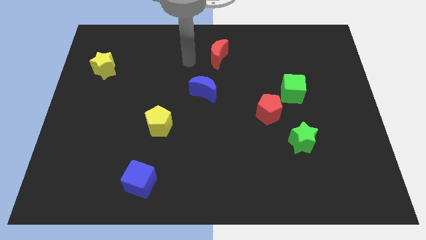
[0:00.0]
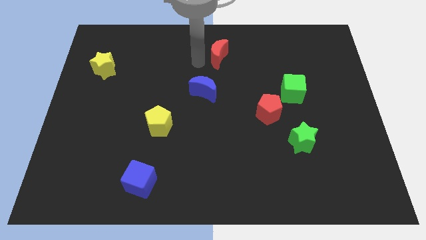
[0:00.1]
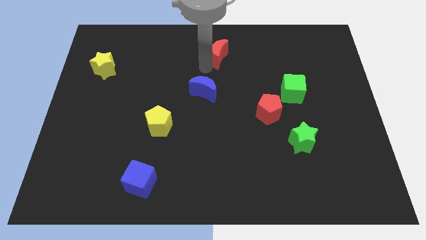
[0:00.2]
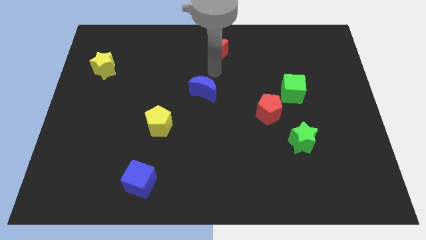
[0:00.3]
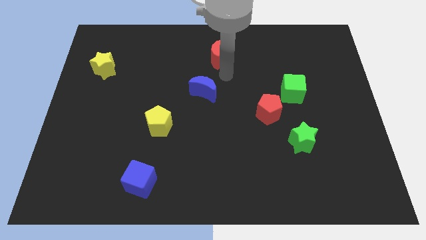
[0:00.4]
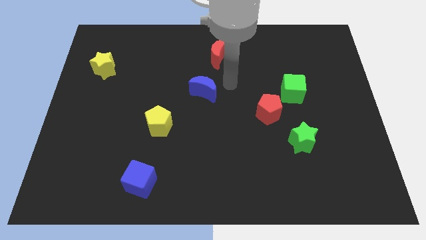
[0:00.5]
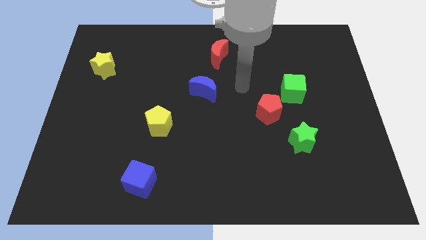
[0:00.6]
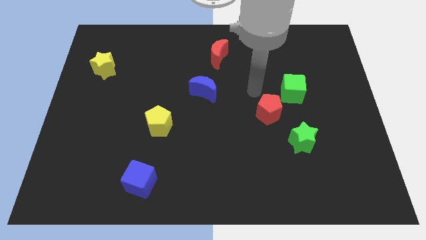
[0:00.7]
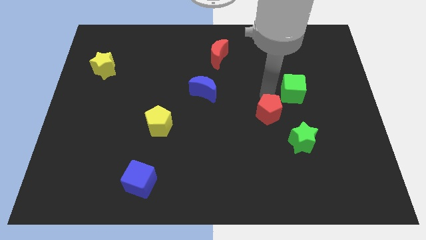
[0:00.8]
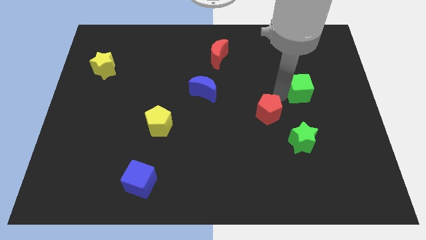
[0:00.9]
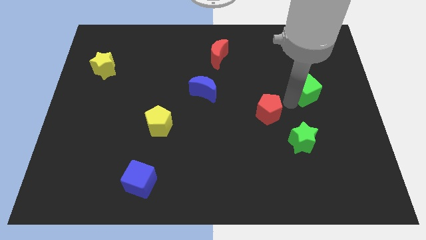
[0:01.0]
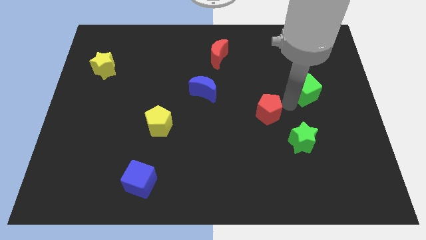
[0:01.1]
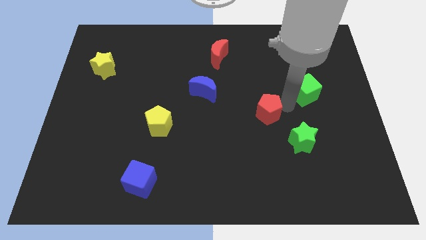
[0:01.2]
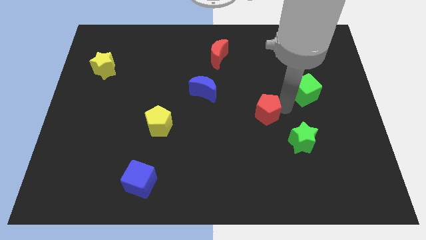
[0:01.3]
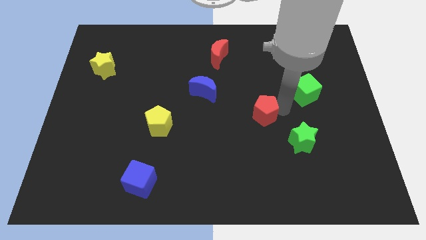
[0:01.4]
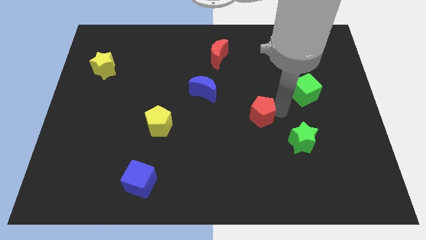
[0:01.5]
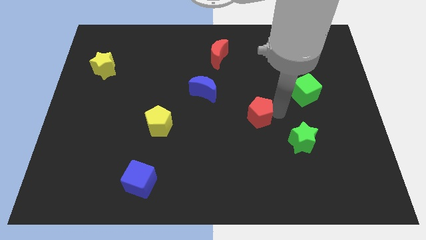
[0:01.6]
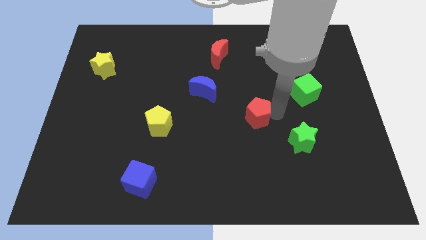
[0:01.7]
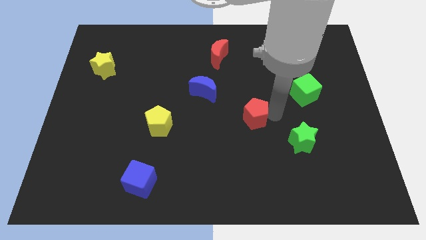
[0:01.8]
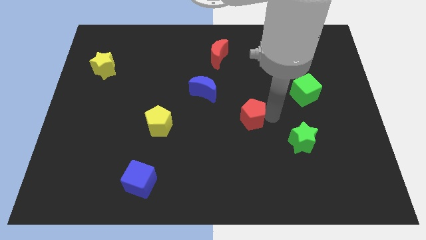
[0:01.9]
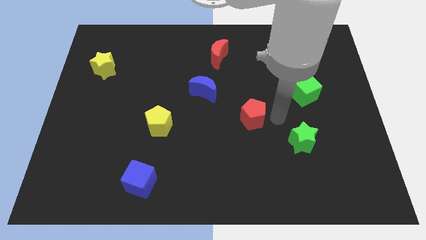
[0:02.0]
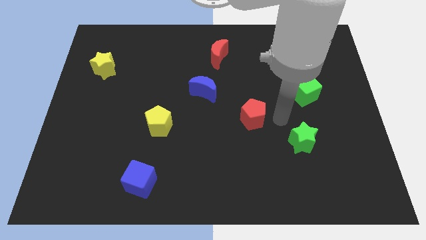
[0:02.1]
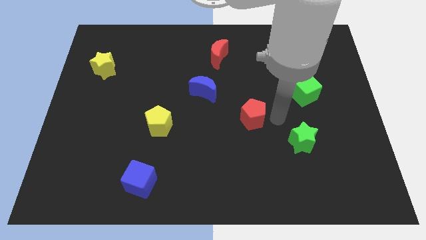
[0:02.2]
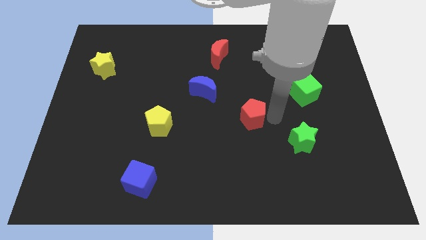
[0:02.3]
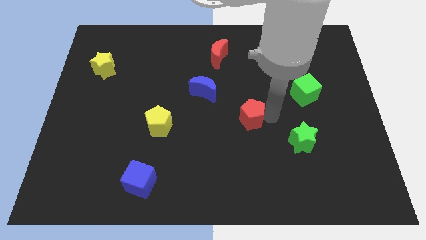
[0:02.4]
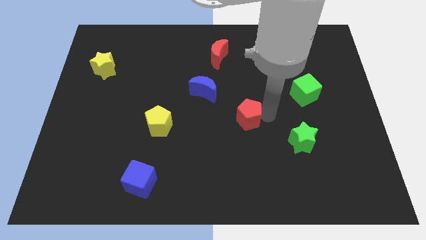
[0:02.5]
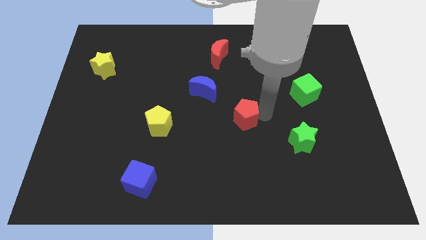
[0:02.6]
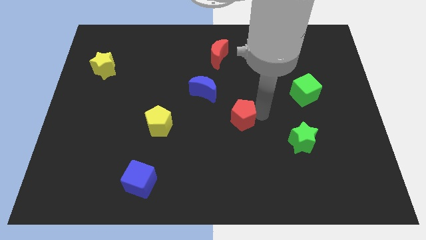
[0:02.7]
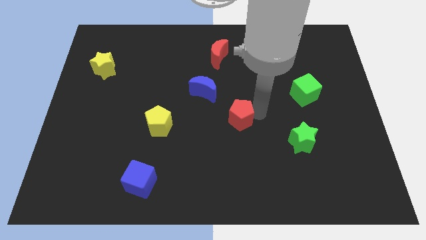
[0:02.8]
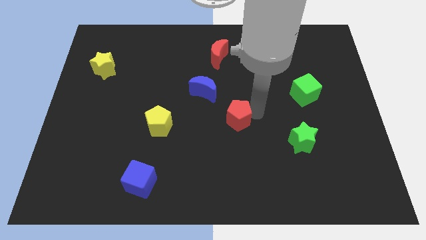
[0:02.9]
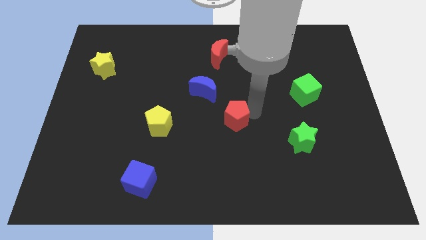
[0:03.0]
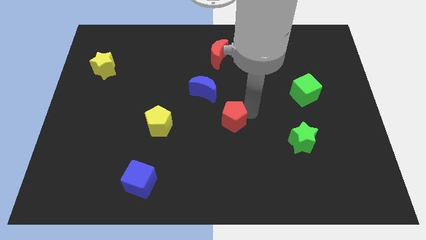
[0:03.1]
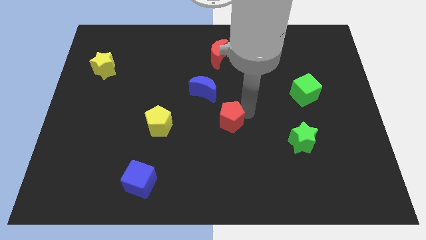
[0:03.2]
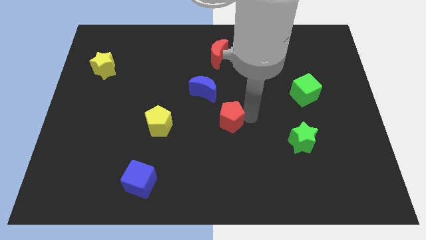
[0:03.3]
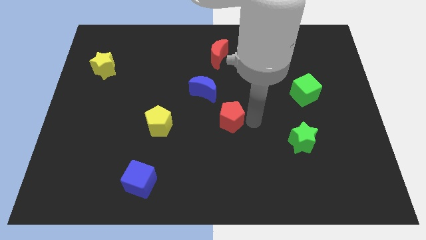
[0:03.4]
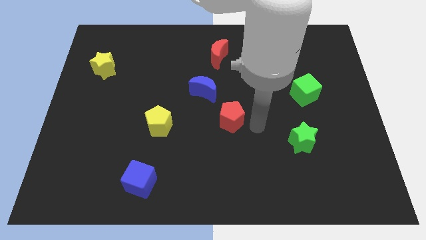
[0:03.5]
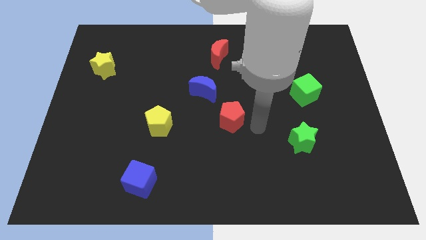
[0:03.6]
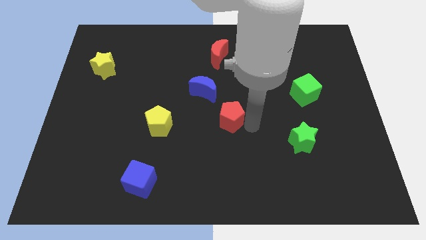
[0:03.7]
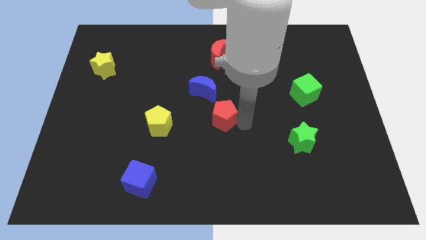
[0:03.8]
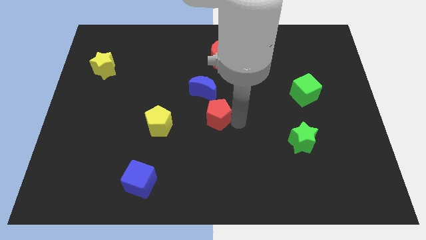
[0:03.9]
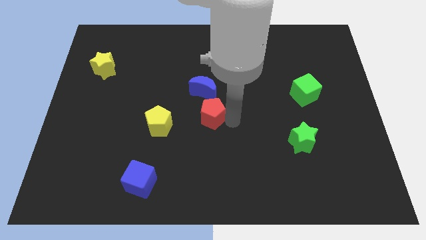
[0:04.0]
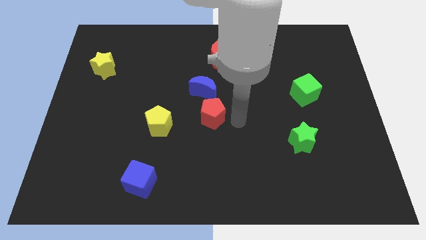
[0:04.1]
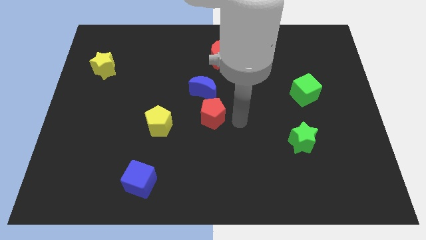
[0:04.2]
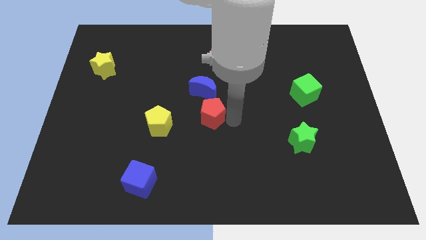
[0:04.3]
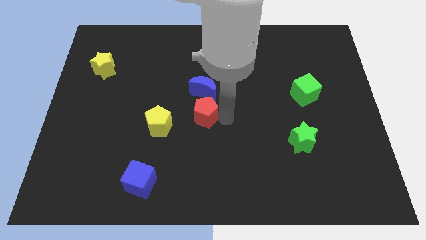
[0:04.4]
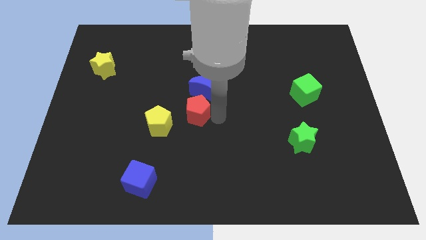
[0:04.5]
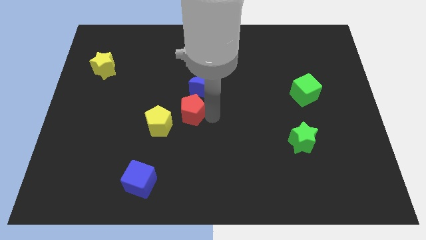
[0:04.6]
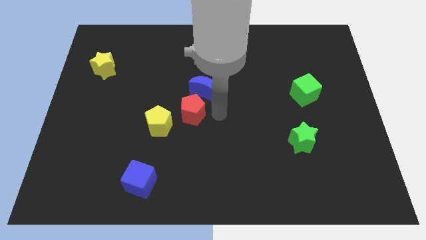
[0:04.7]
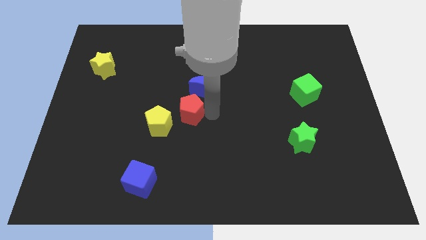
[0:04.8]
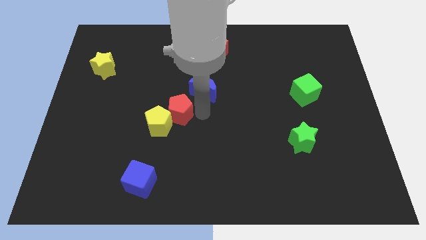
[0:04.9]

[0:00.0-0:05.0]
move the red pentagon to the left

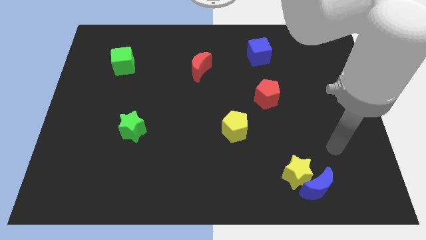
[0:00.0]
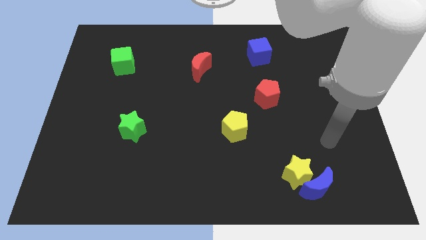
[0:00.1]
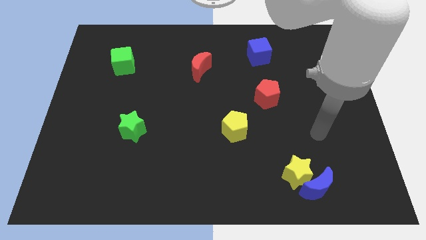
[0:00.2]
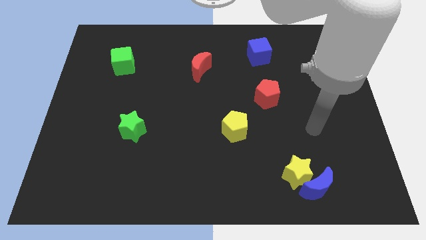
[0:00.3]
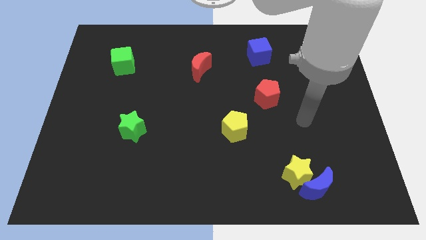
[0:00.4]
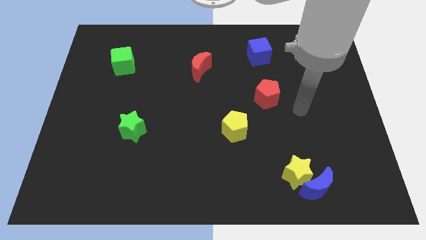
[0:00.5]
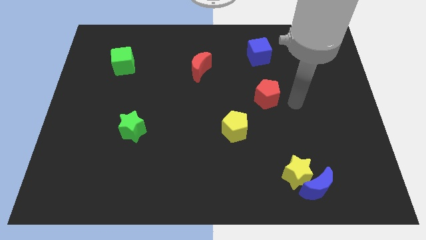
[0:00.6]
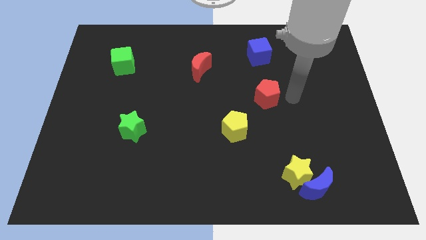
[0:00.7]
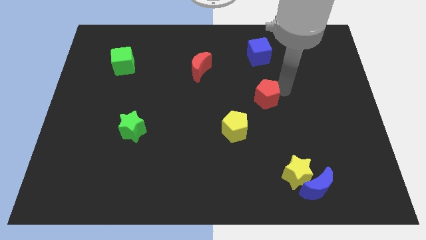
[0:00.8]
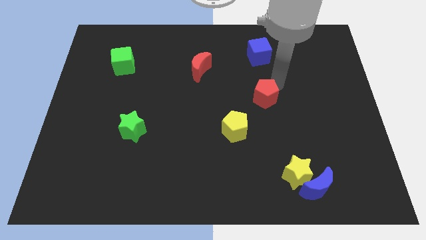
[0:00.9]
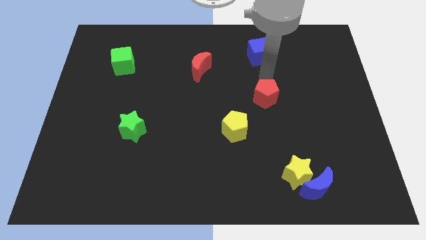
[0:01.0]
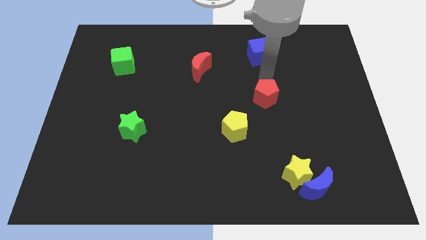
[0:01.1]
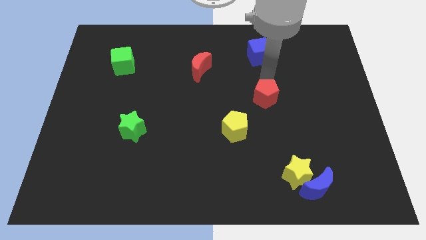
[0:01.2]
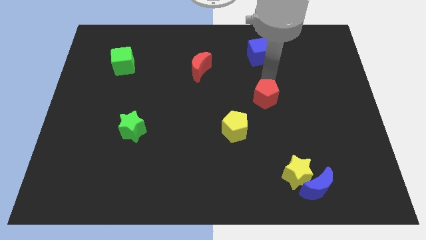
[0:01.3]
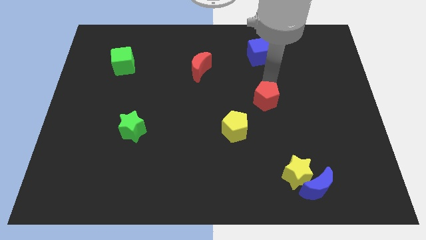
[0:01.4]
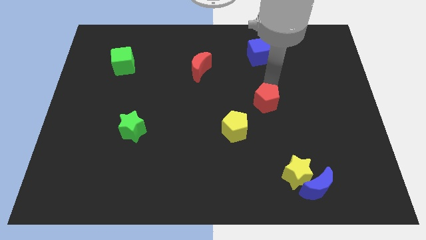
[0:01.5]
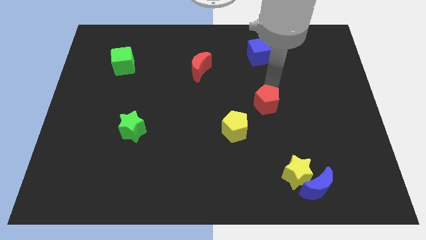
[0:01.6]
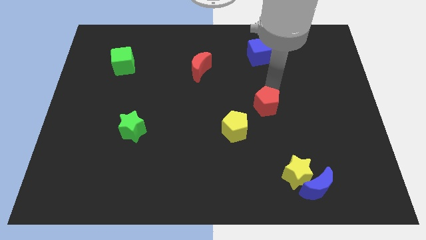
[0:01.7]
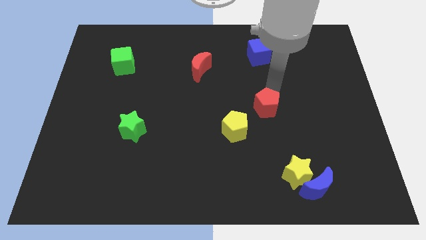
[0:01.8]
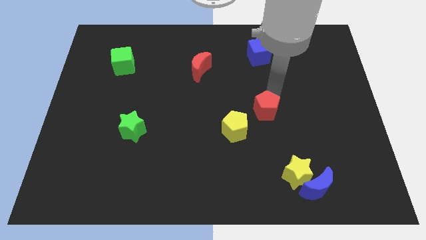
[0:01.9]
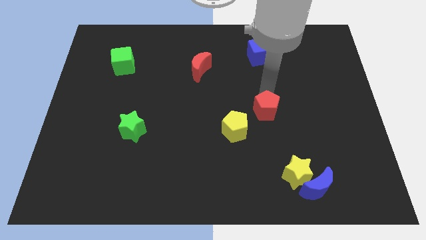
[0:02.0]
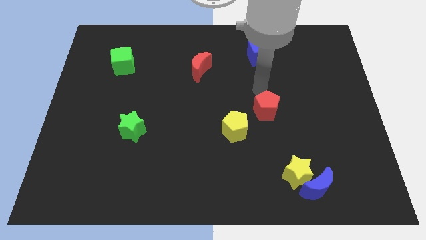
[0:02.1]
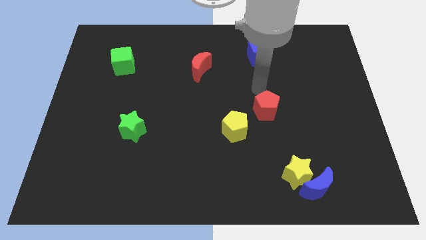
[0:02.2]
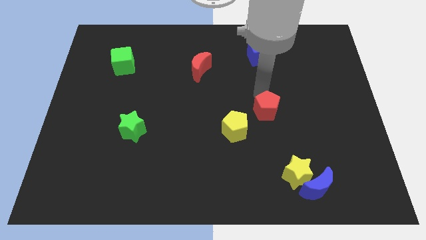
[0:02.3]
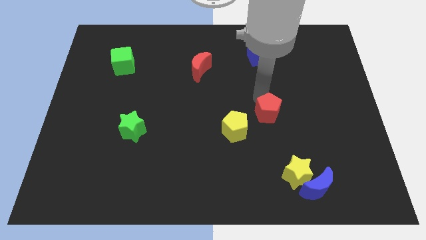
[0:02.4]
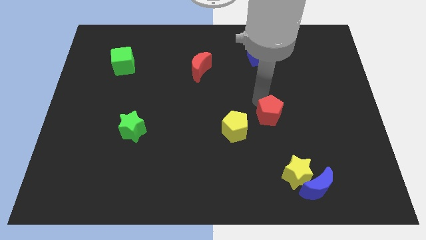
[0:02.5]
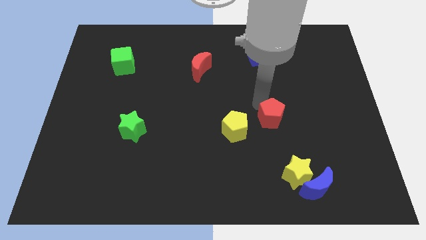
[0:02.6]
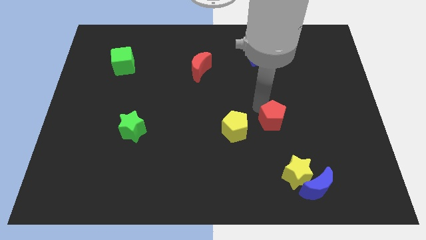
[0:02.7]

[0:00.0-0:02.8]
slightly push the red pentagon downwards

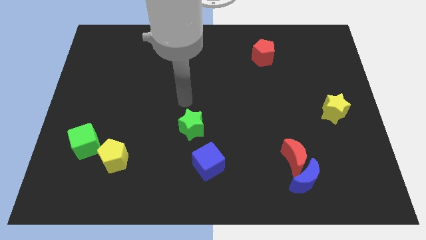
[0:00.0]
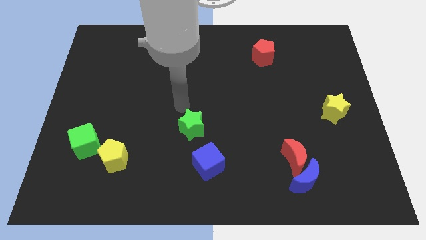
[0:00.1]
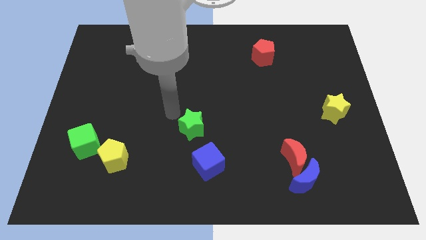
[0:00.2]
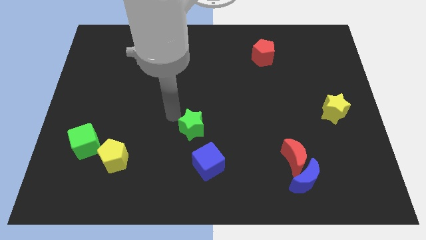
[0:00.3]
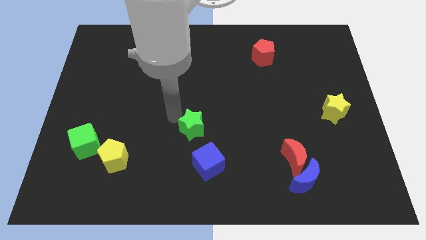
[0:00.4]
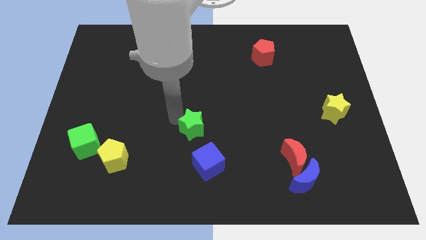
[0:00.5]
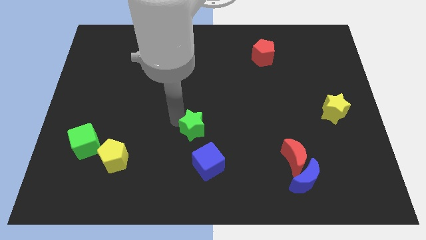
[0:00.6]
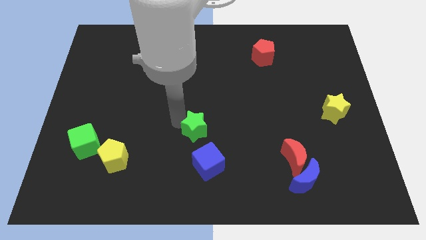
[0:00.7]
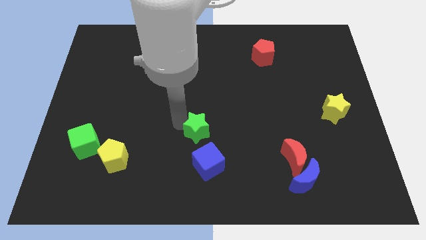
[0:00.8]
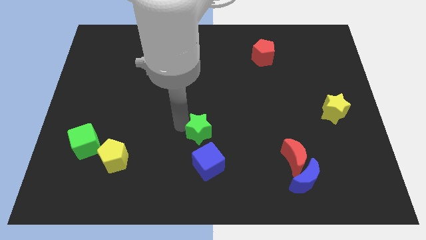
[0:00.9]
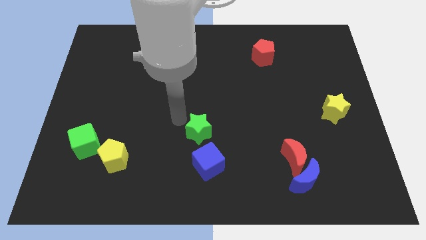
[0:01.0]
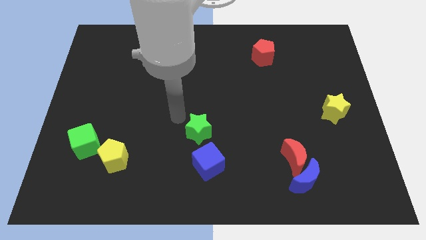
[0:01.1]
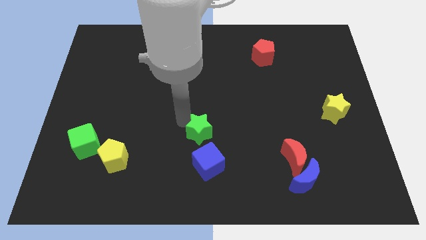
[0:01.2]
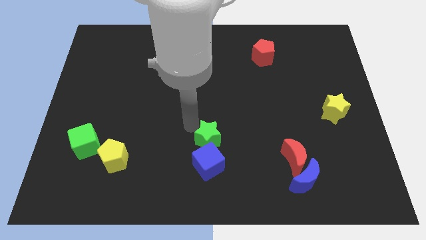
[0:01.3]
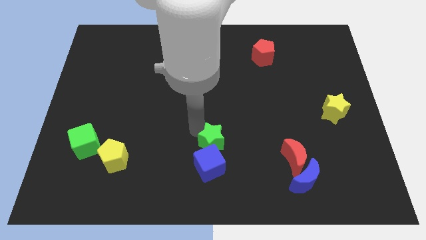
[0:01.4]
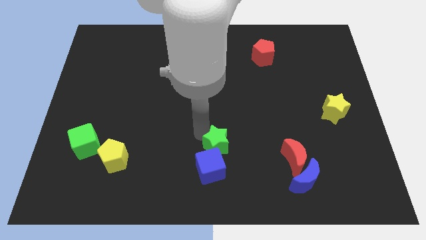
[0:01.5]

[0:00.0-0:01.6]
move the green star a bit down and right diagonally
